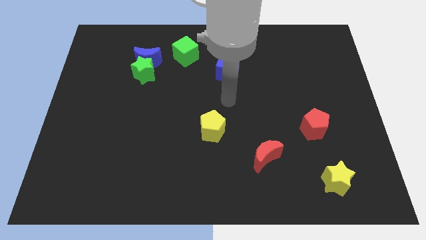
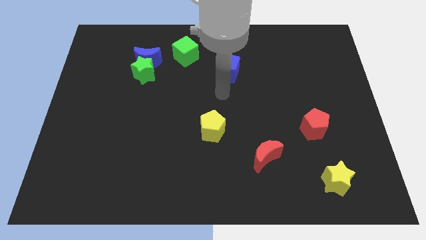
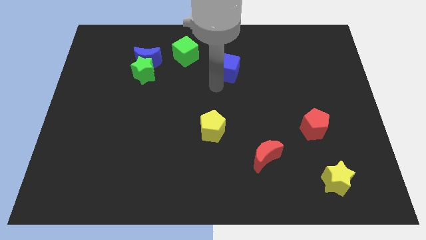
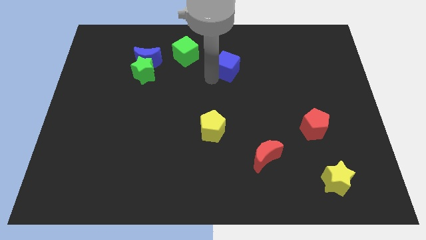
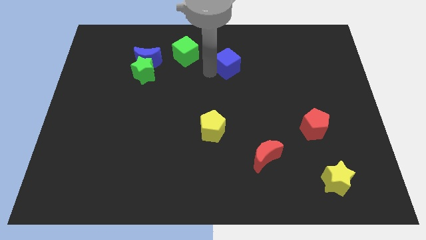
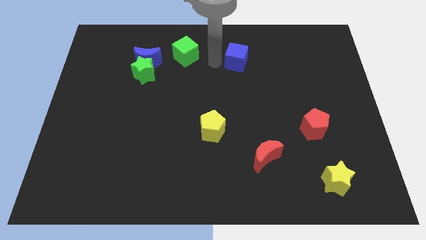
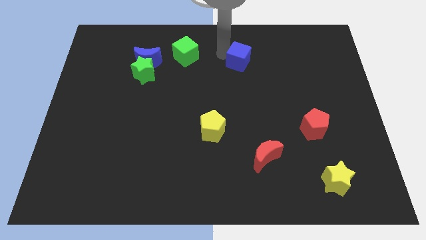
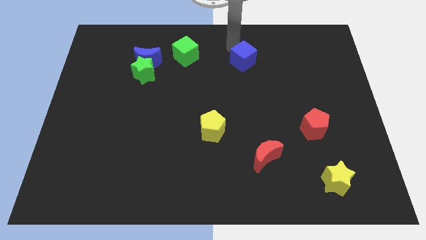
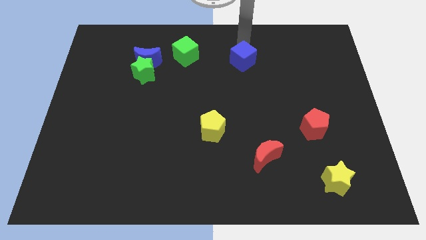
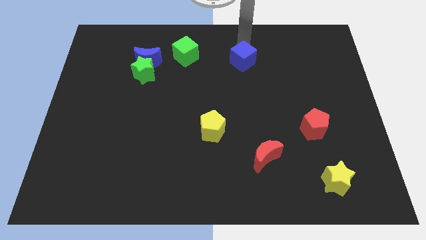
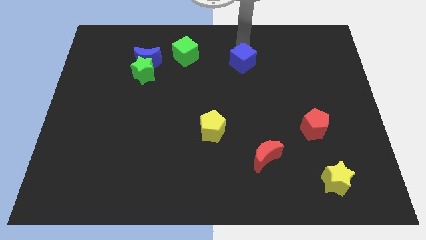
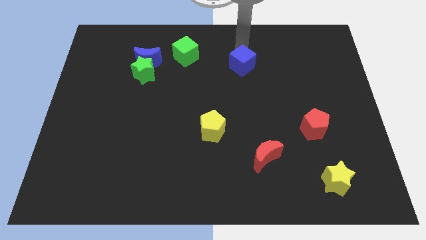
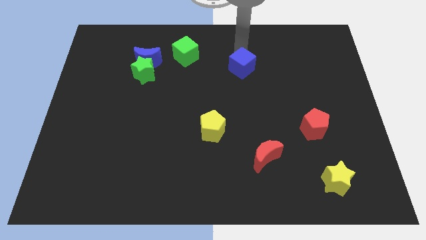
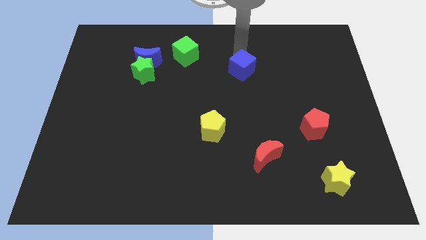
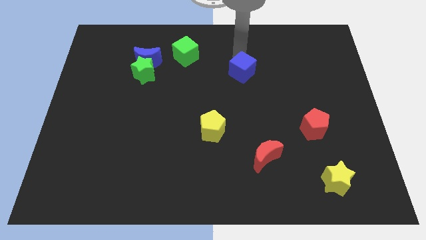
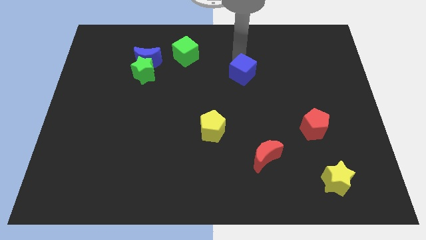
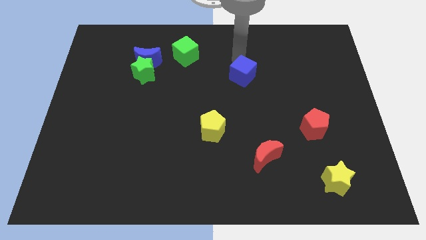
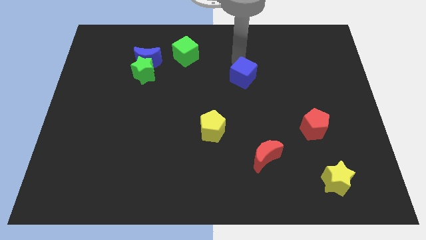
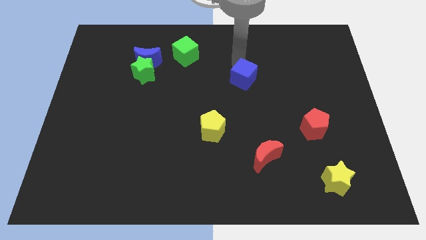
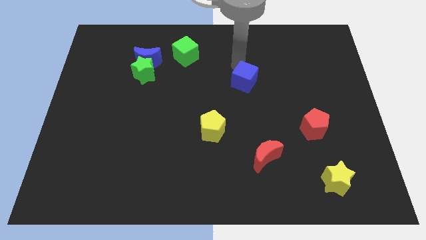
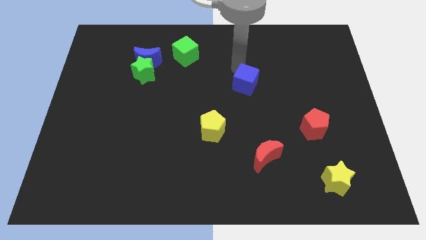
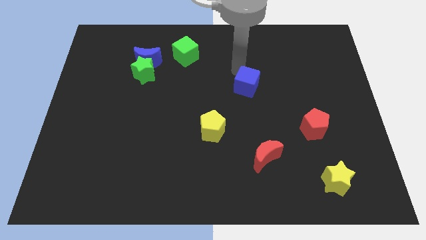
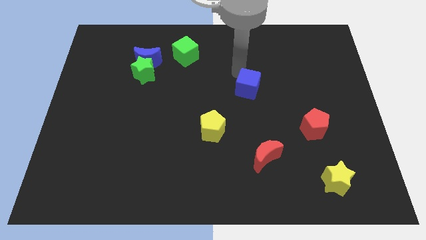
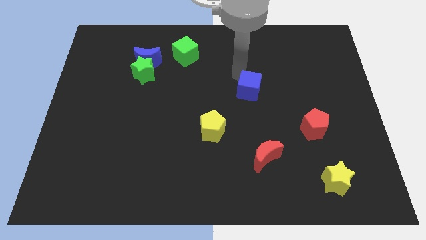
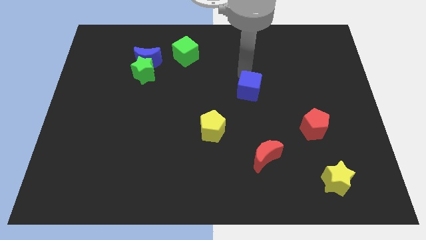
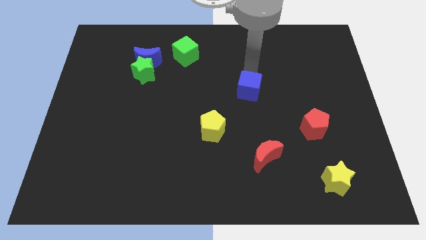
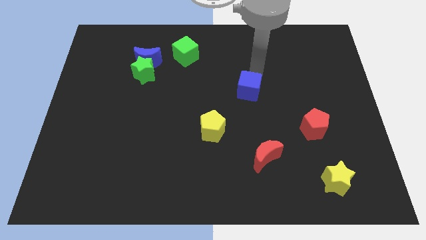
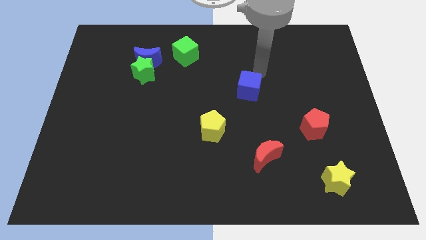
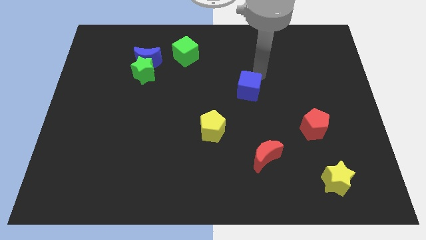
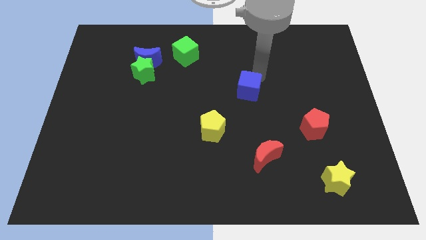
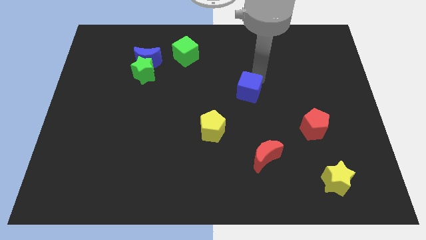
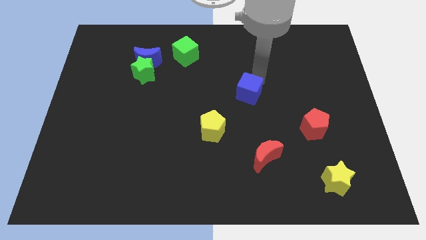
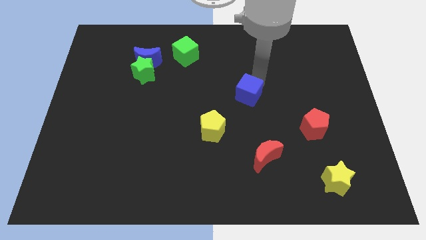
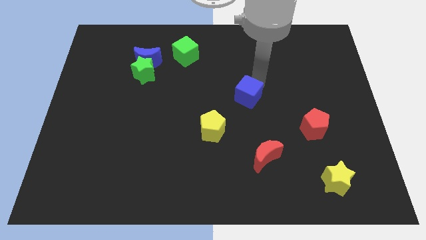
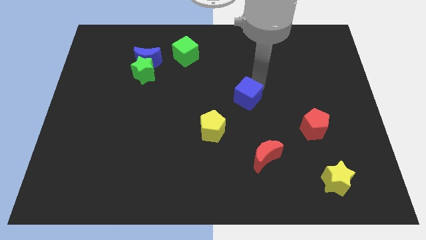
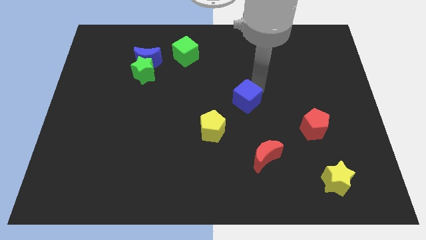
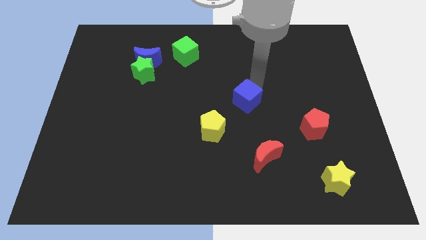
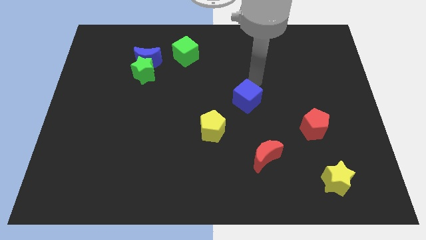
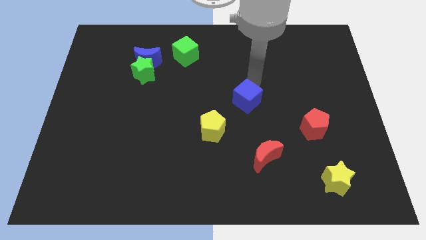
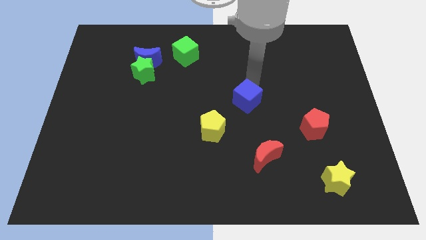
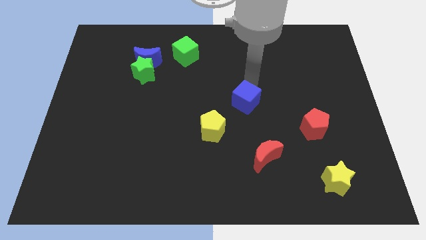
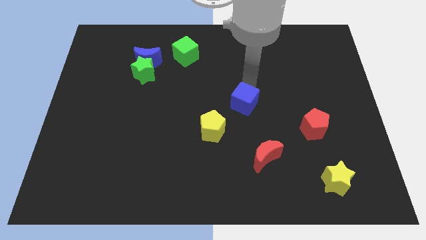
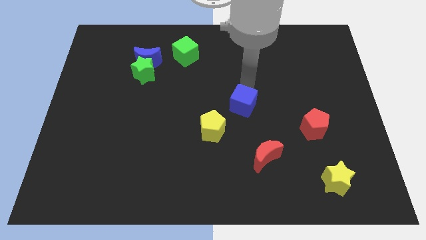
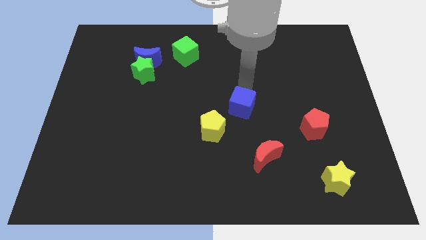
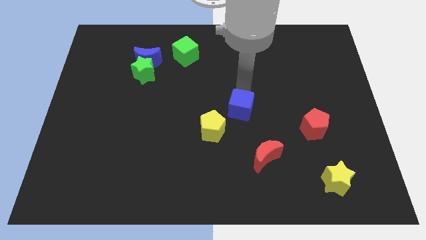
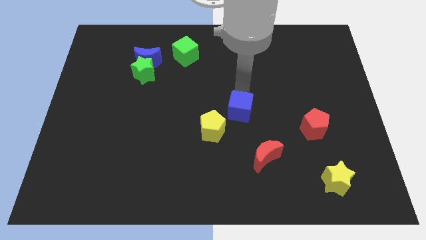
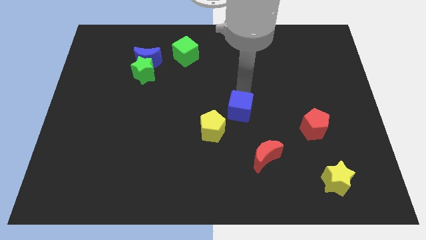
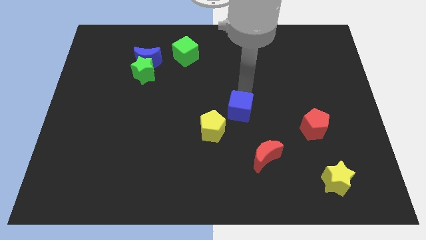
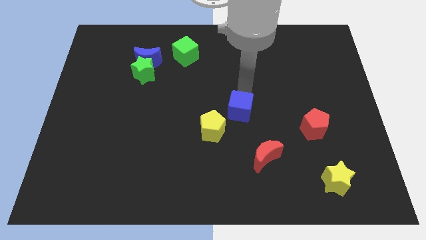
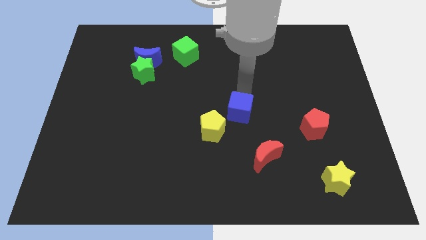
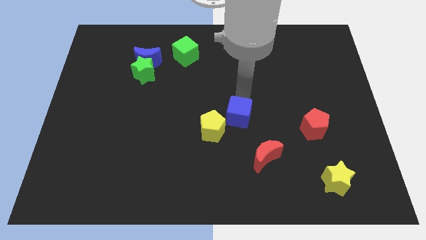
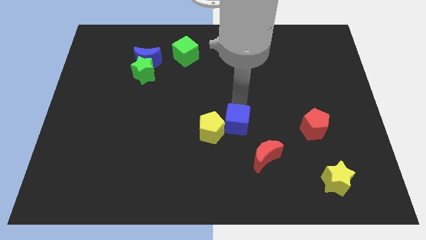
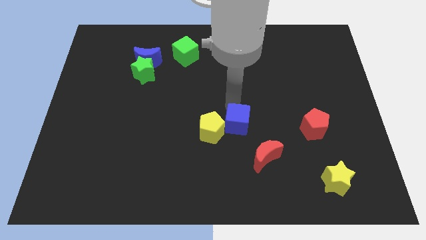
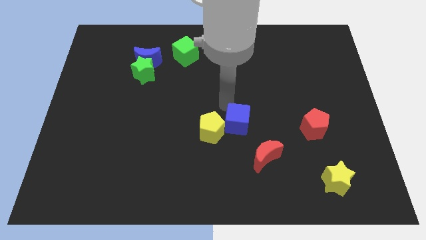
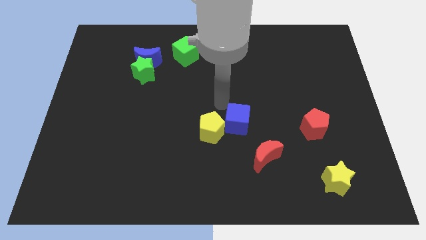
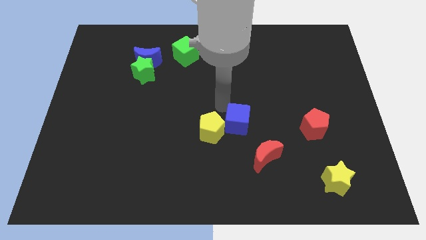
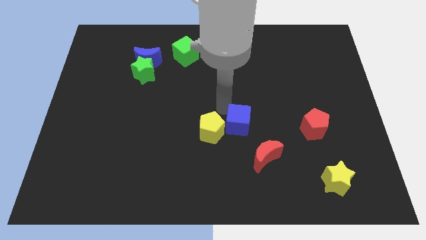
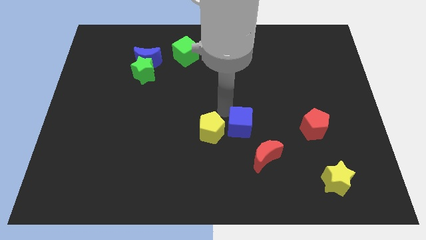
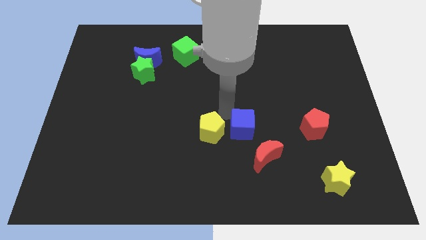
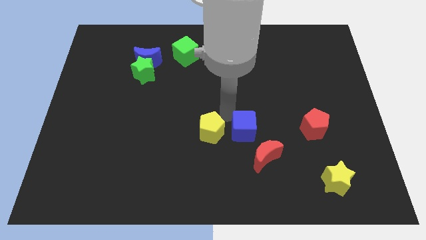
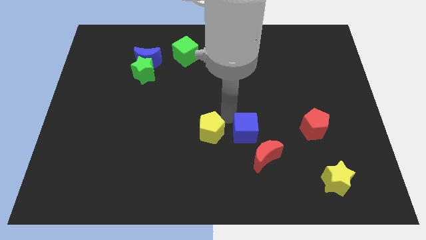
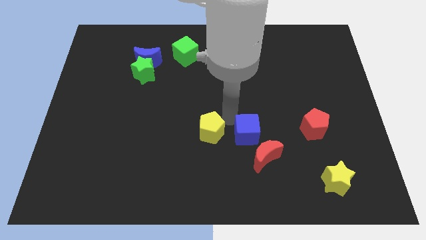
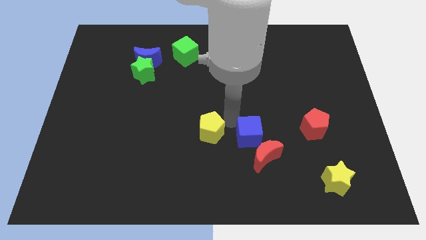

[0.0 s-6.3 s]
move the blue cube towards the red moon

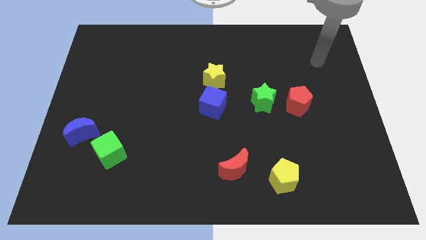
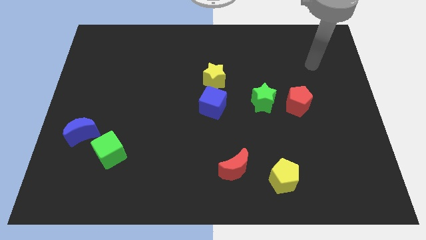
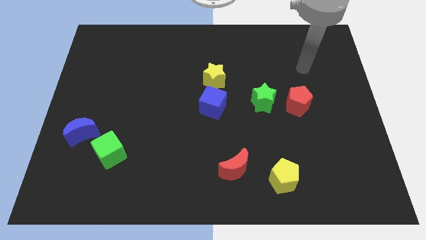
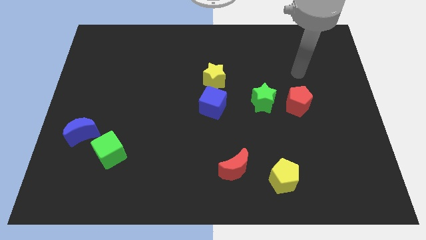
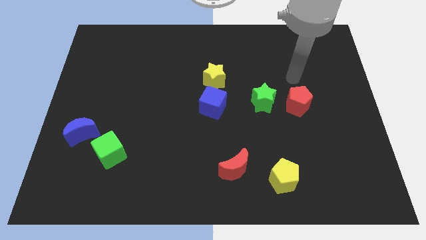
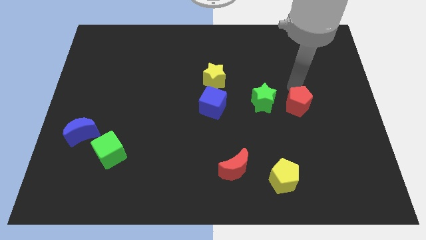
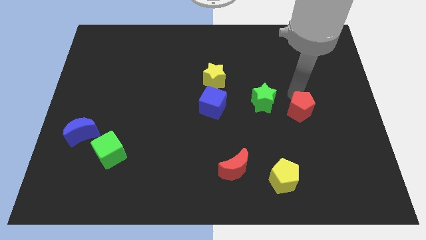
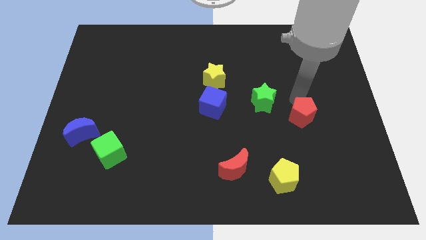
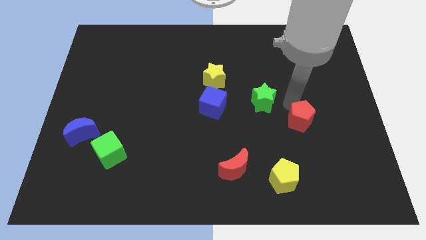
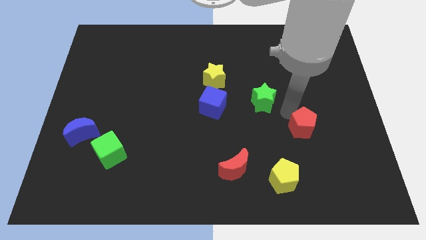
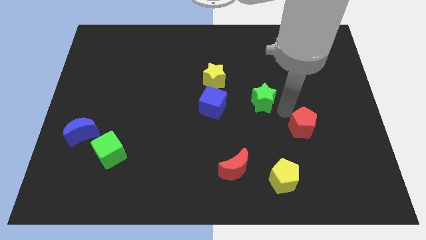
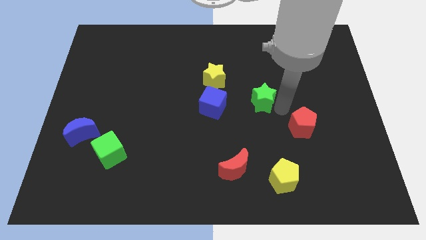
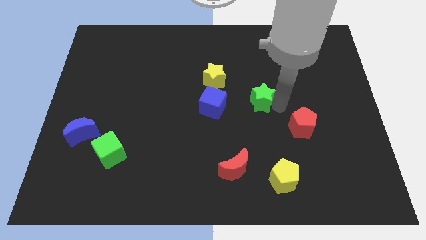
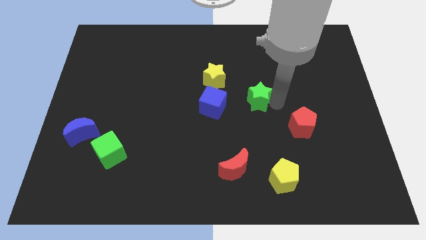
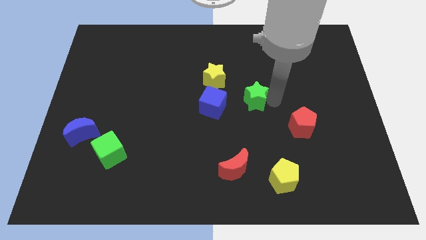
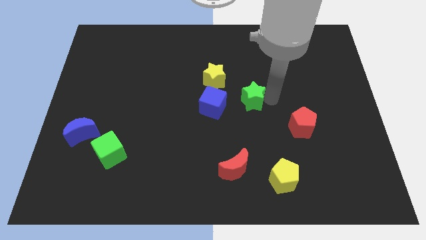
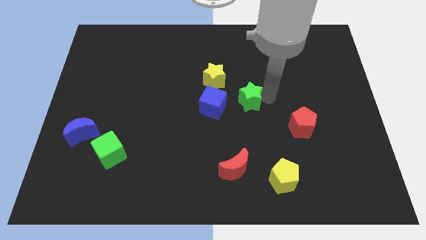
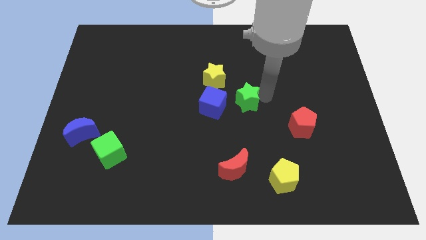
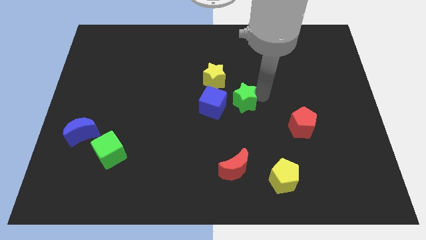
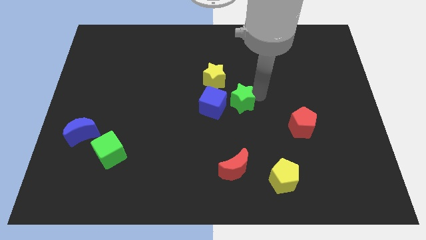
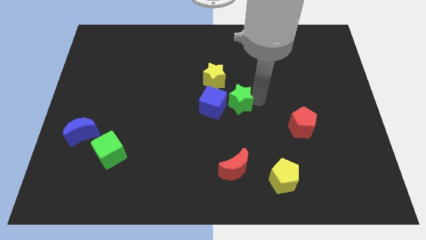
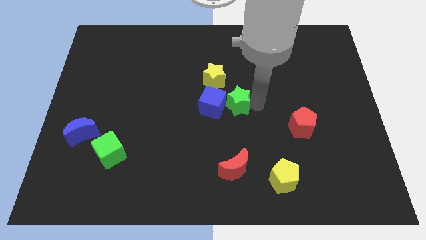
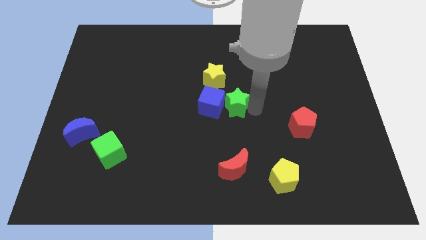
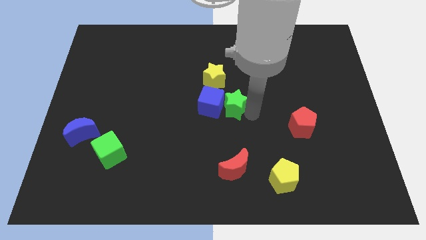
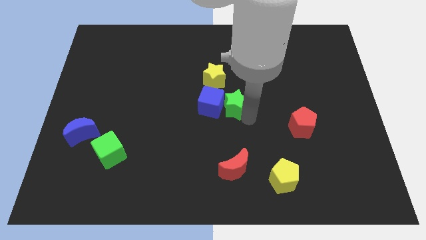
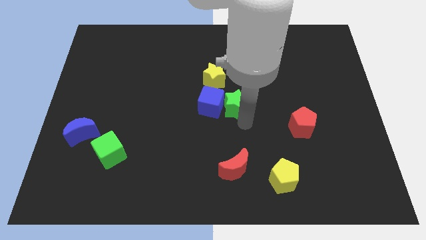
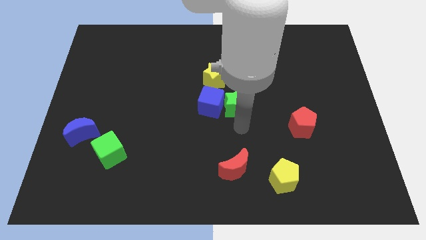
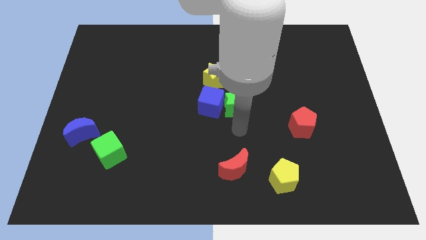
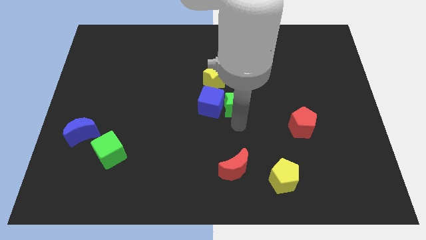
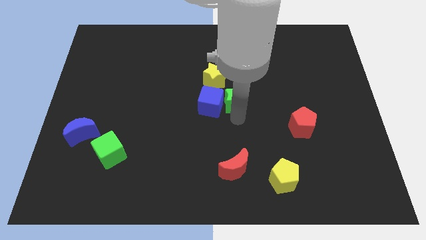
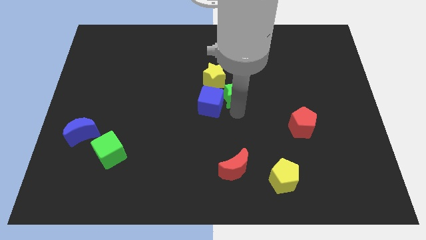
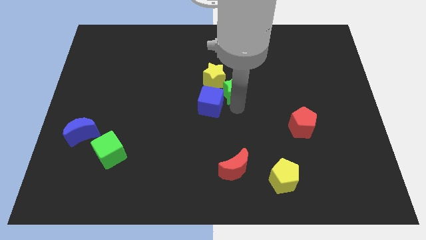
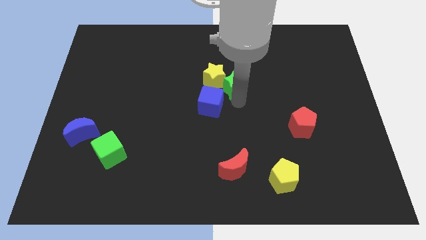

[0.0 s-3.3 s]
slide the green star towards the yellow star
